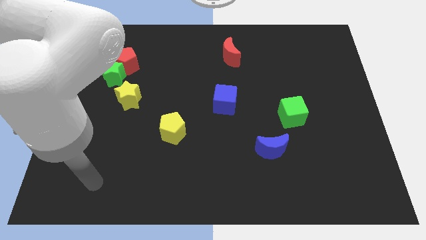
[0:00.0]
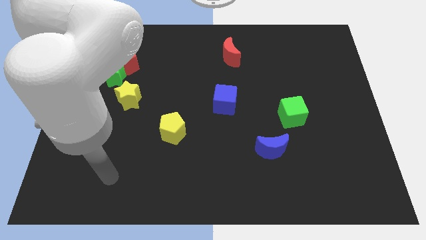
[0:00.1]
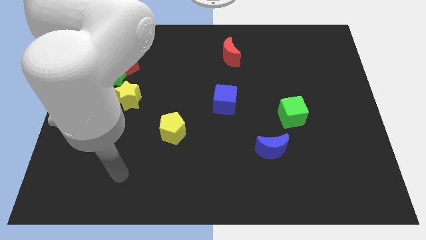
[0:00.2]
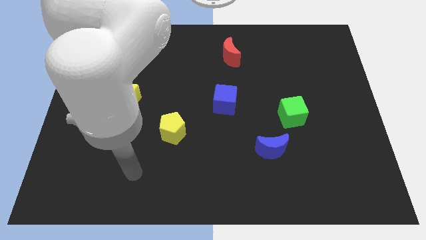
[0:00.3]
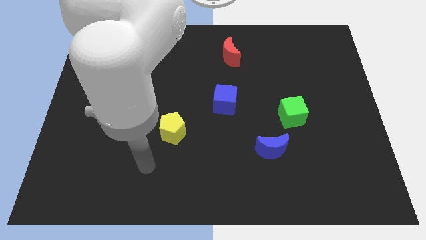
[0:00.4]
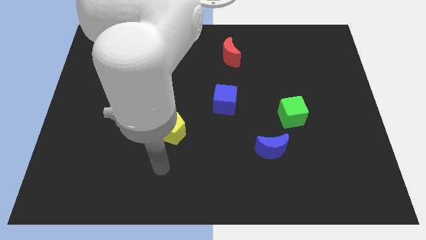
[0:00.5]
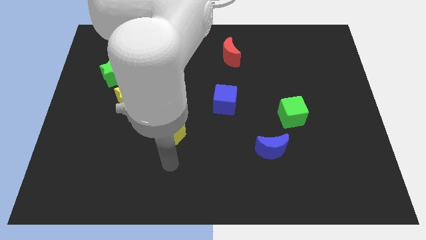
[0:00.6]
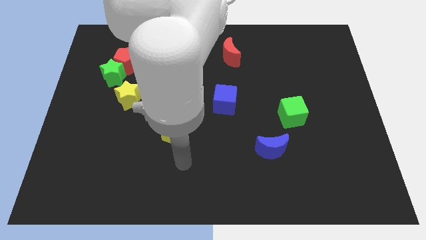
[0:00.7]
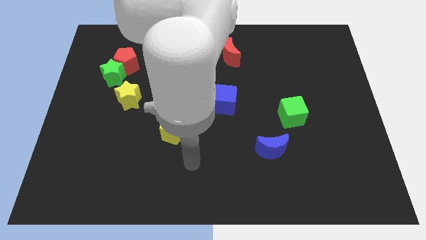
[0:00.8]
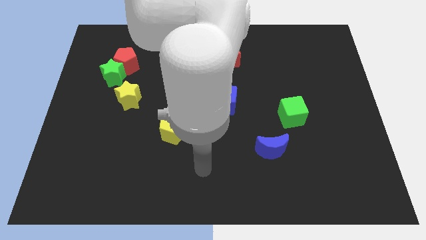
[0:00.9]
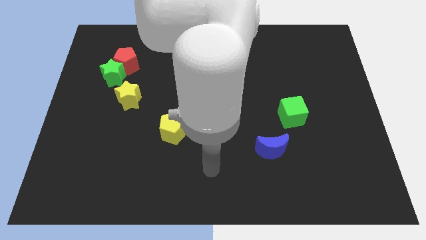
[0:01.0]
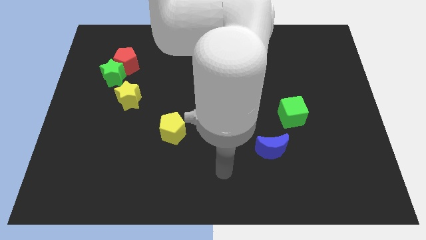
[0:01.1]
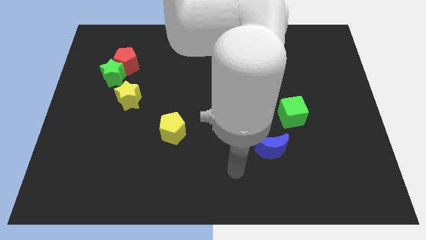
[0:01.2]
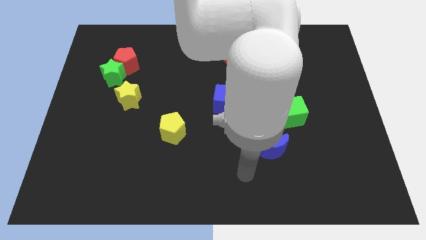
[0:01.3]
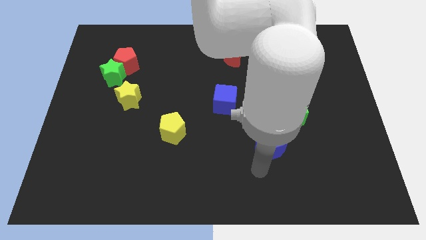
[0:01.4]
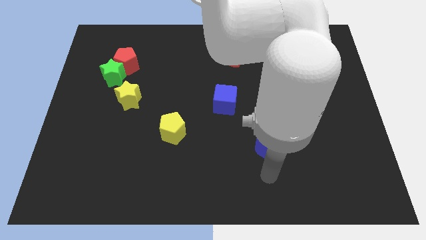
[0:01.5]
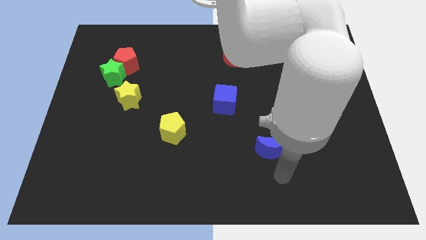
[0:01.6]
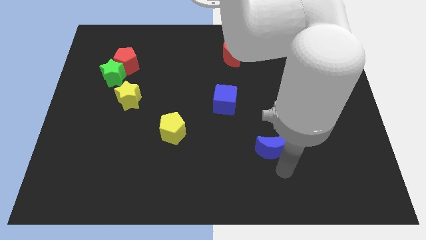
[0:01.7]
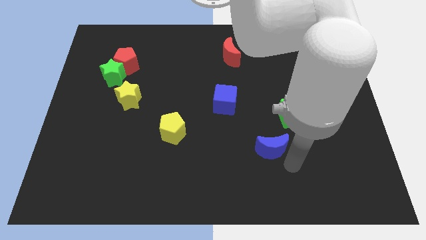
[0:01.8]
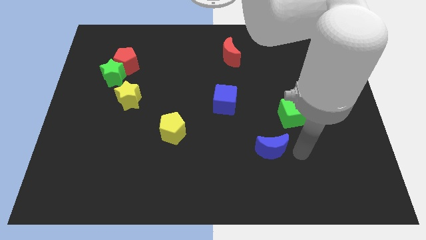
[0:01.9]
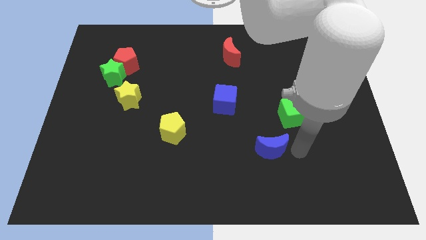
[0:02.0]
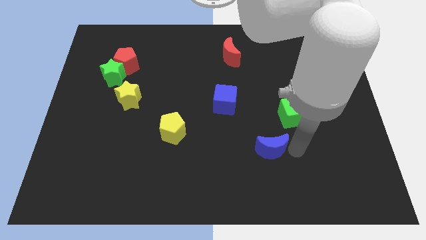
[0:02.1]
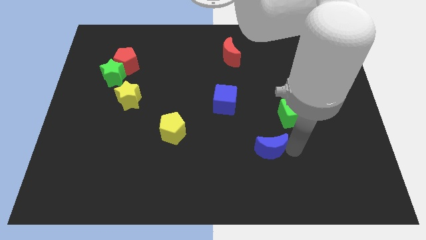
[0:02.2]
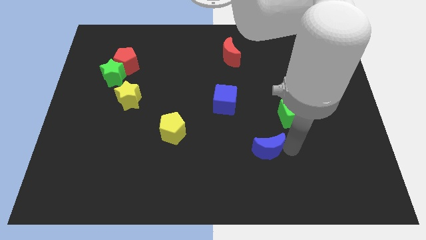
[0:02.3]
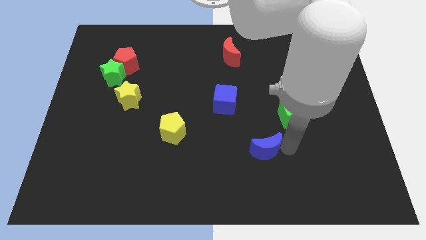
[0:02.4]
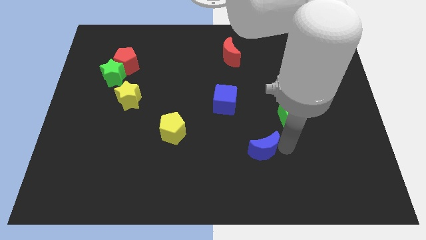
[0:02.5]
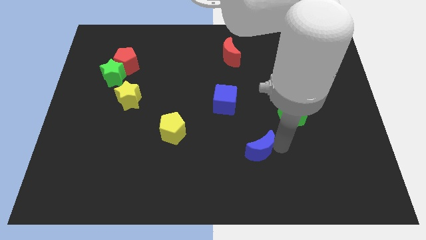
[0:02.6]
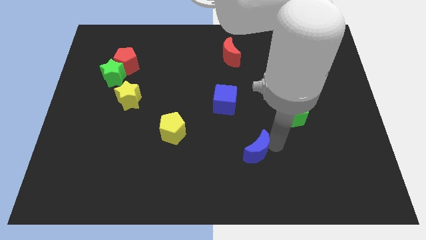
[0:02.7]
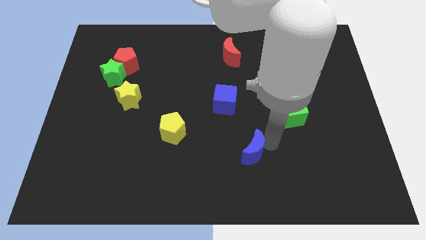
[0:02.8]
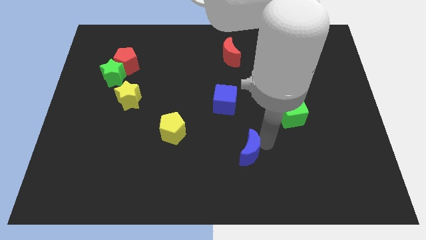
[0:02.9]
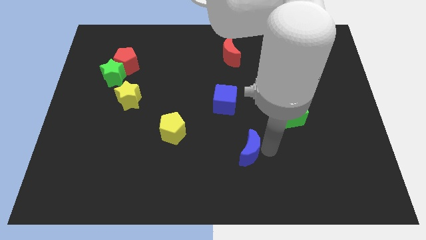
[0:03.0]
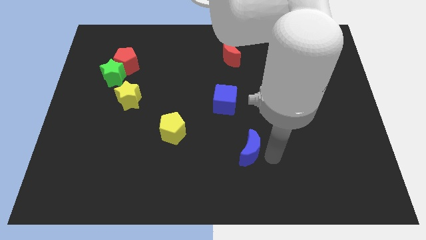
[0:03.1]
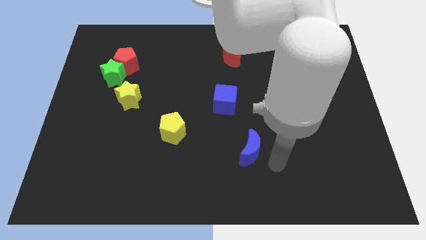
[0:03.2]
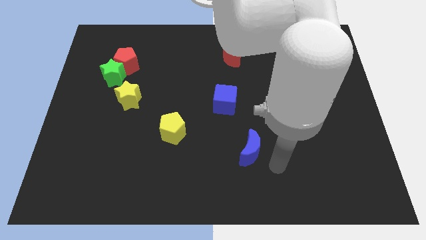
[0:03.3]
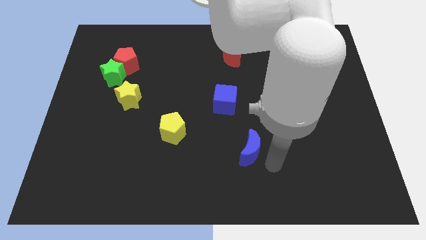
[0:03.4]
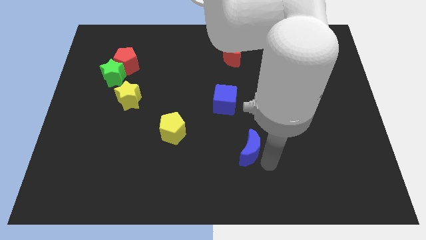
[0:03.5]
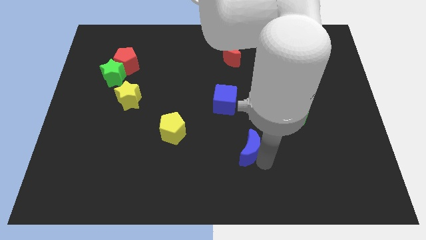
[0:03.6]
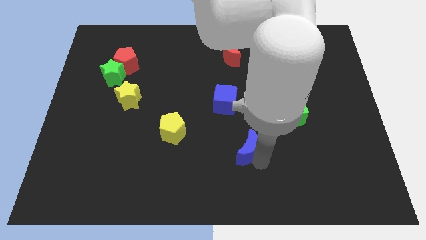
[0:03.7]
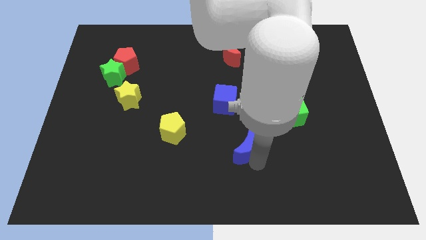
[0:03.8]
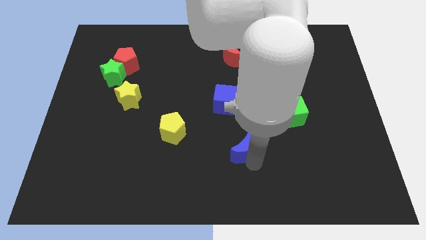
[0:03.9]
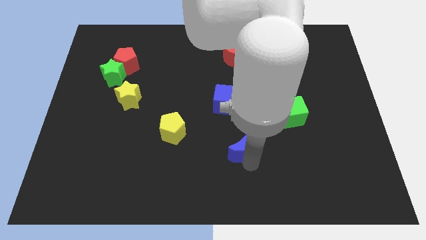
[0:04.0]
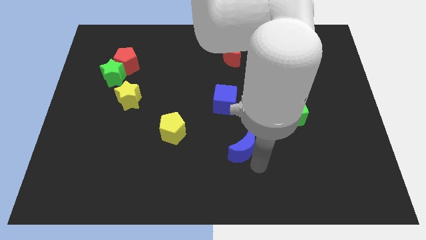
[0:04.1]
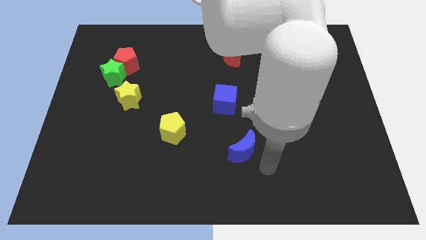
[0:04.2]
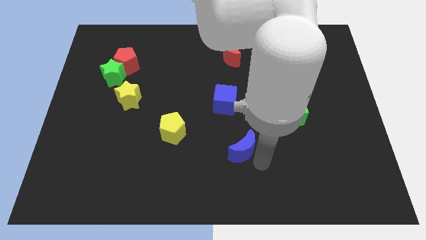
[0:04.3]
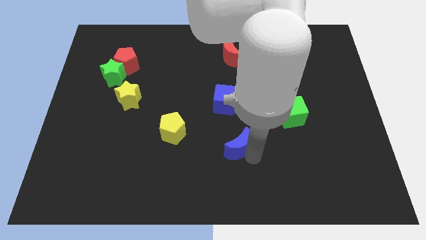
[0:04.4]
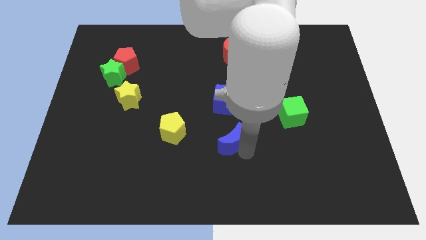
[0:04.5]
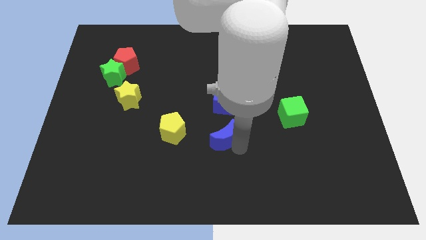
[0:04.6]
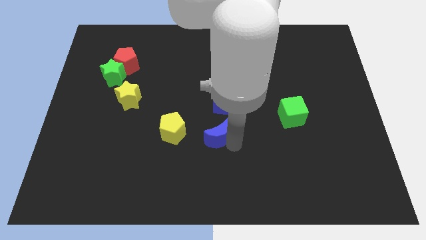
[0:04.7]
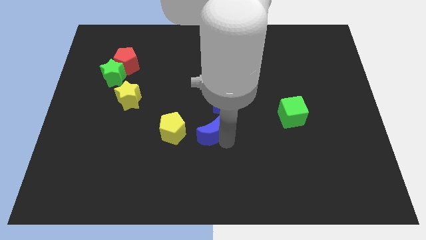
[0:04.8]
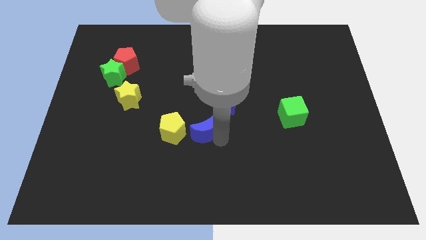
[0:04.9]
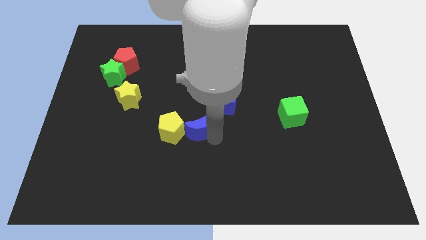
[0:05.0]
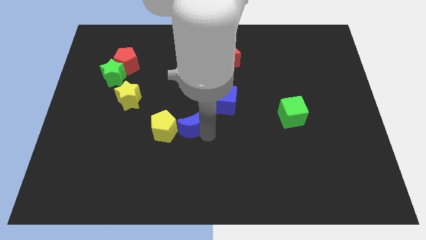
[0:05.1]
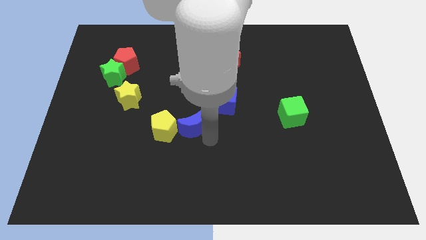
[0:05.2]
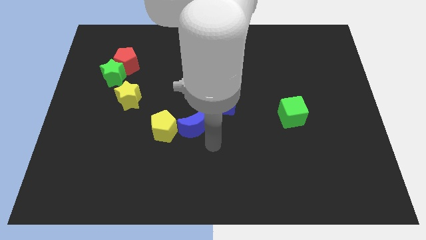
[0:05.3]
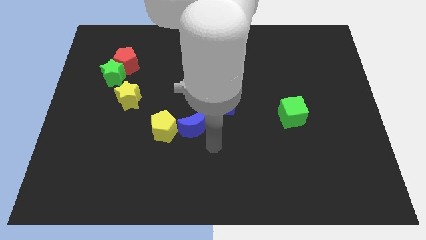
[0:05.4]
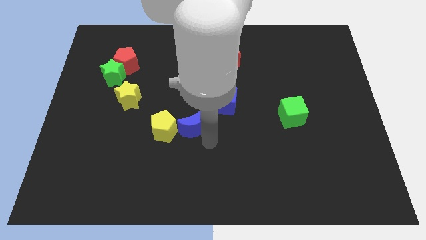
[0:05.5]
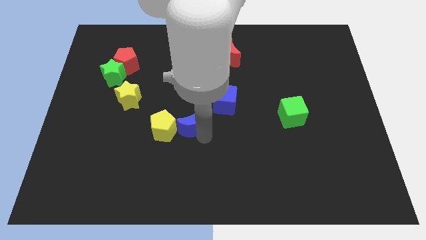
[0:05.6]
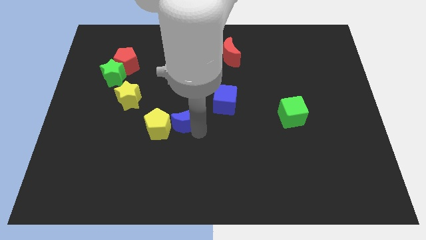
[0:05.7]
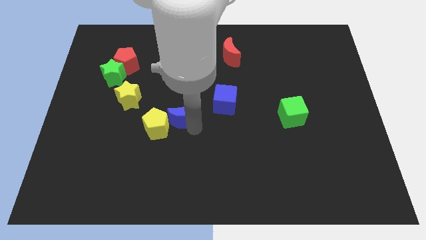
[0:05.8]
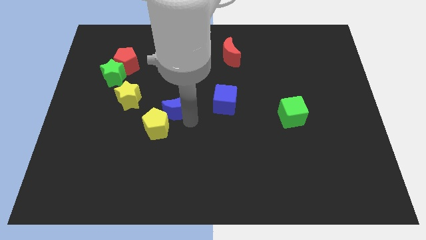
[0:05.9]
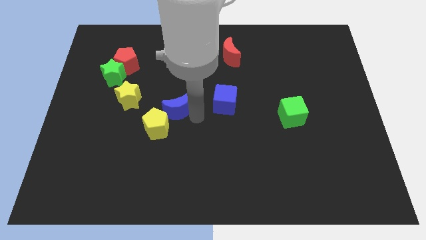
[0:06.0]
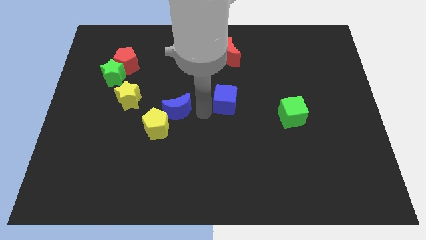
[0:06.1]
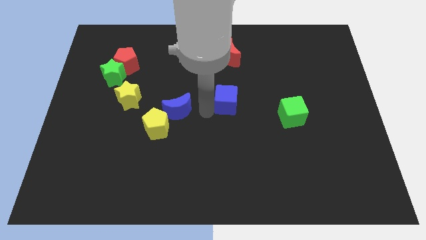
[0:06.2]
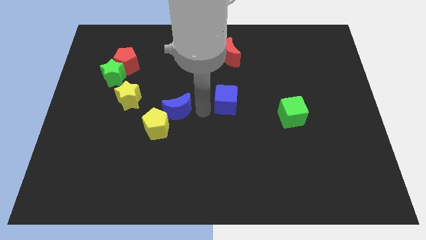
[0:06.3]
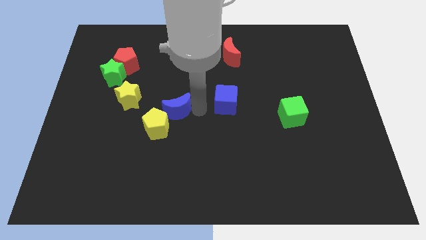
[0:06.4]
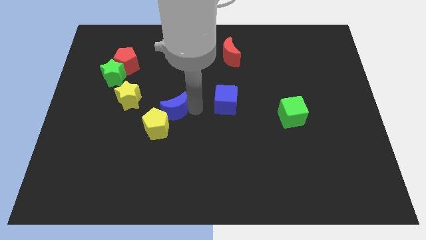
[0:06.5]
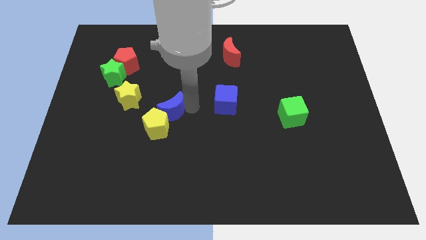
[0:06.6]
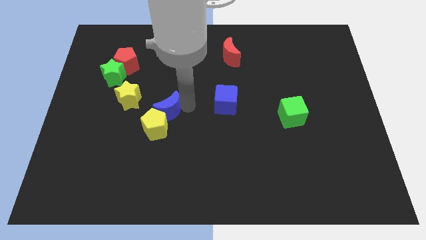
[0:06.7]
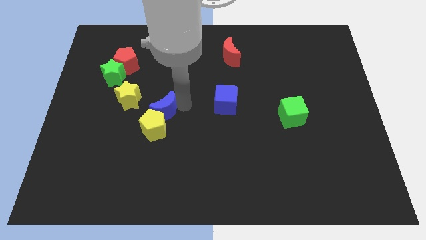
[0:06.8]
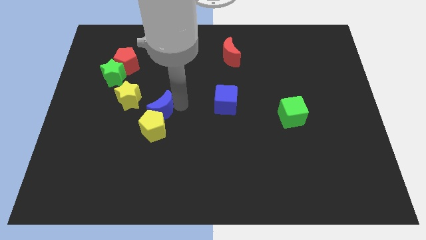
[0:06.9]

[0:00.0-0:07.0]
push the blue moon to the top left side of the yellow pentagon

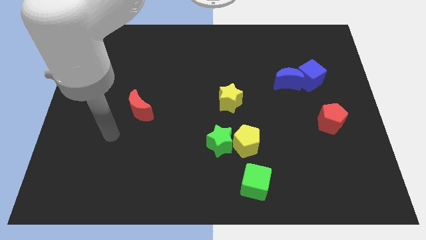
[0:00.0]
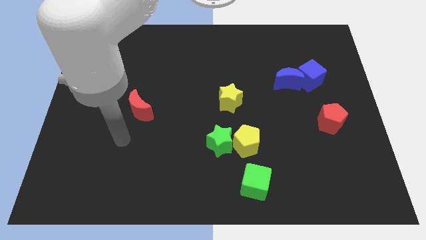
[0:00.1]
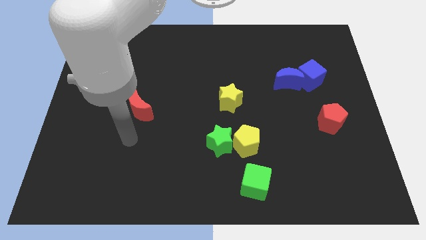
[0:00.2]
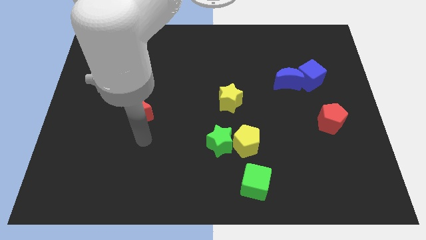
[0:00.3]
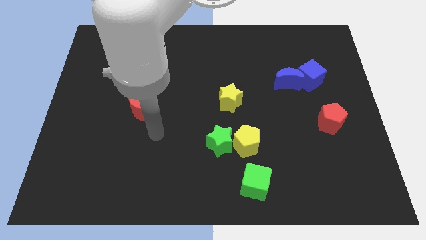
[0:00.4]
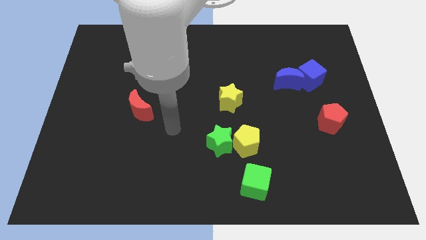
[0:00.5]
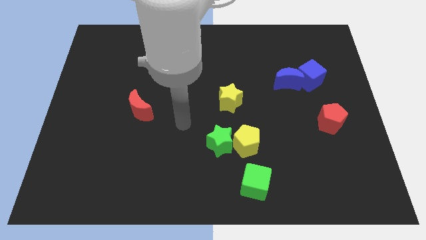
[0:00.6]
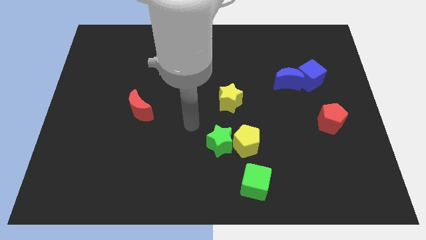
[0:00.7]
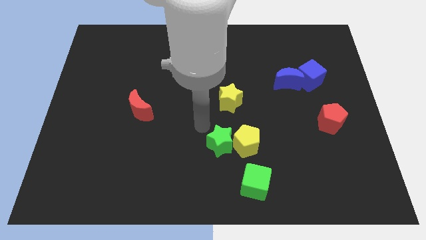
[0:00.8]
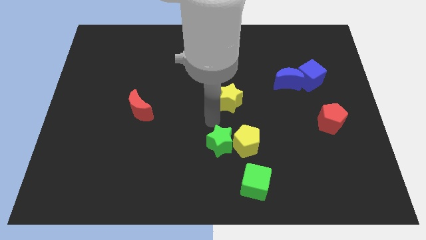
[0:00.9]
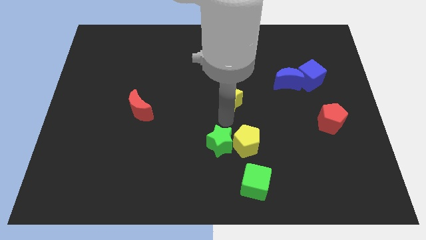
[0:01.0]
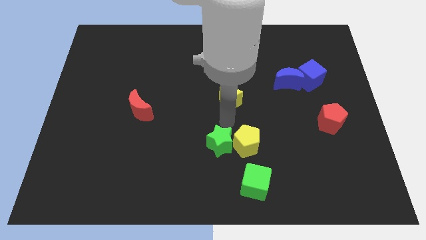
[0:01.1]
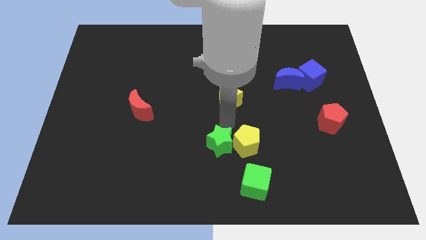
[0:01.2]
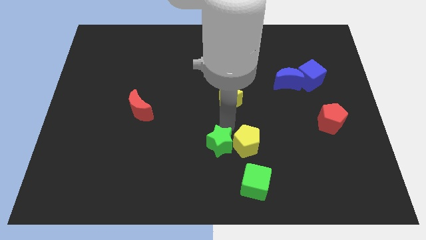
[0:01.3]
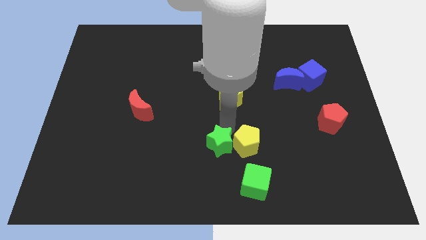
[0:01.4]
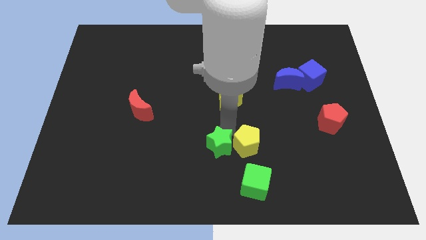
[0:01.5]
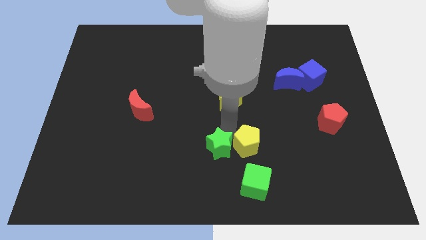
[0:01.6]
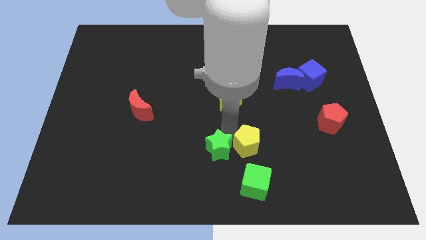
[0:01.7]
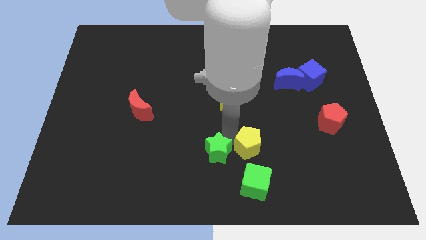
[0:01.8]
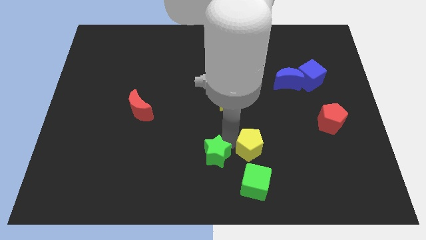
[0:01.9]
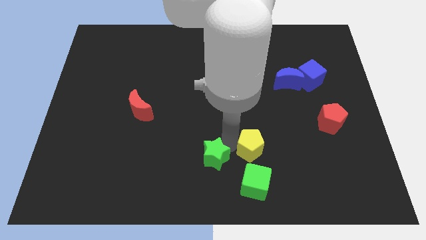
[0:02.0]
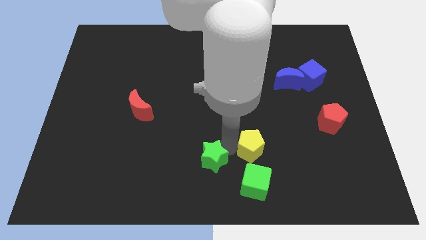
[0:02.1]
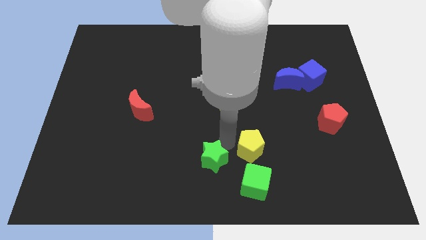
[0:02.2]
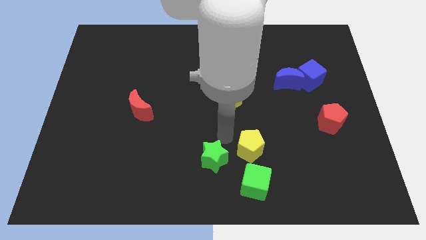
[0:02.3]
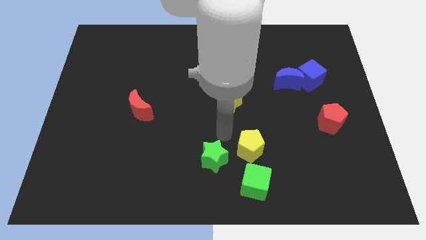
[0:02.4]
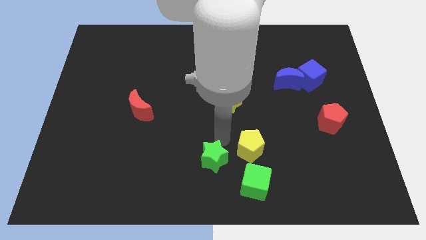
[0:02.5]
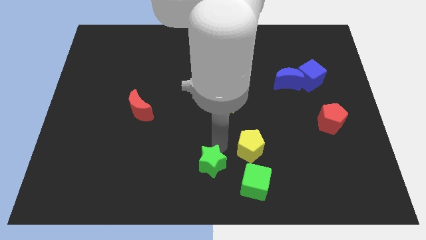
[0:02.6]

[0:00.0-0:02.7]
slide the green star to the left side of the green cube
